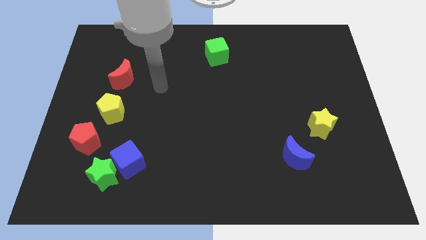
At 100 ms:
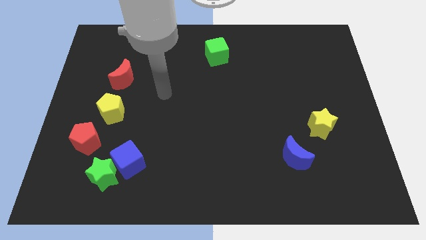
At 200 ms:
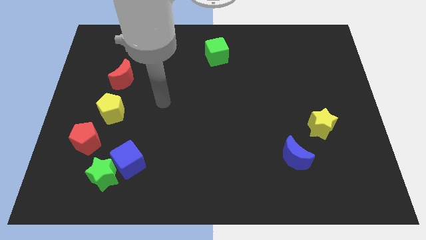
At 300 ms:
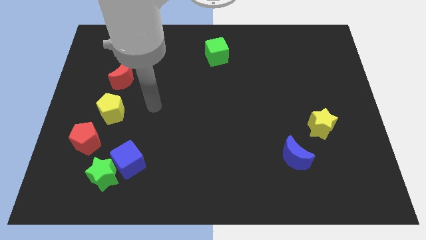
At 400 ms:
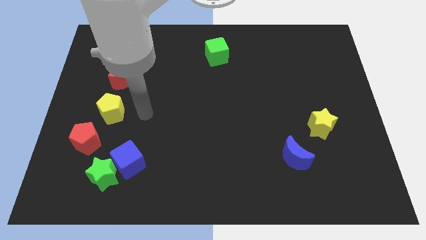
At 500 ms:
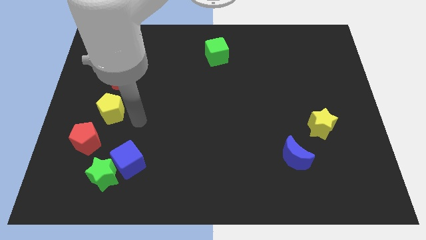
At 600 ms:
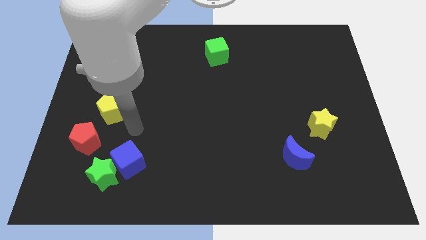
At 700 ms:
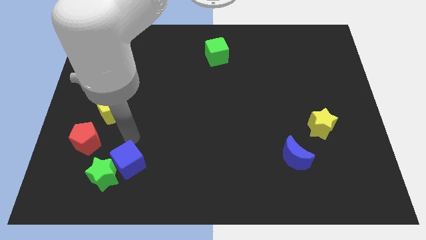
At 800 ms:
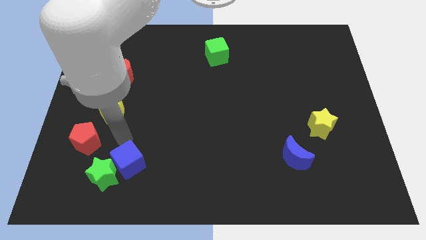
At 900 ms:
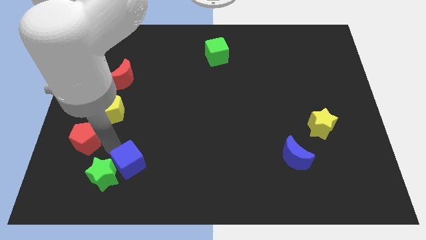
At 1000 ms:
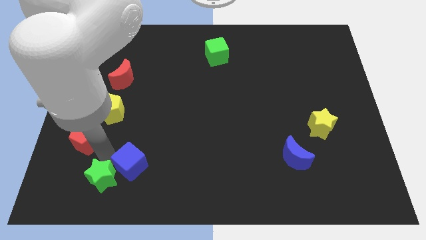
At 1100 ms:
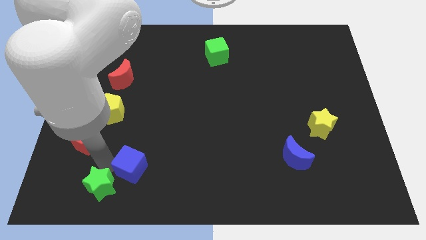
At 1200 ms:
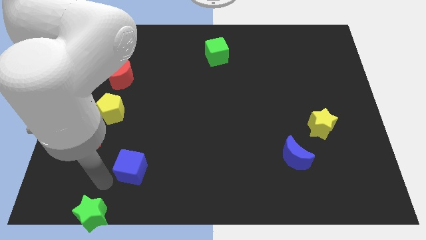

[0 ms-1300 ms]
pull the blue cube apart from the green star

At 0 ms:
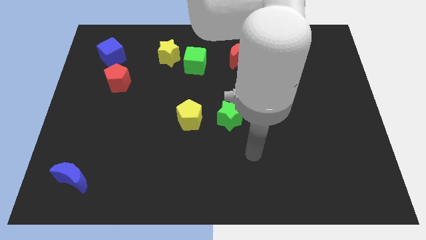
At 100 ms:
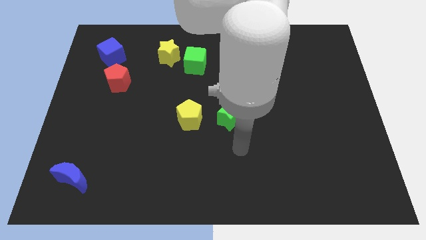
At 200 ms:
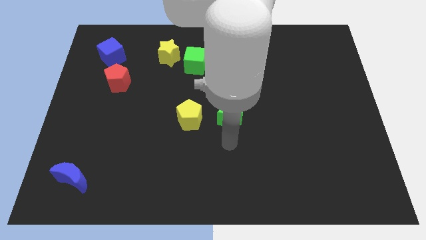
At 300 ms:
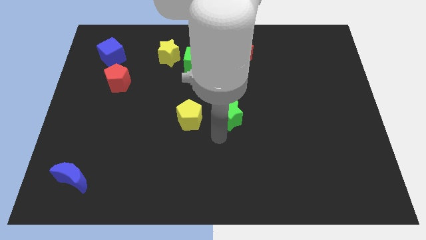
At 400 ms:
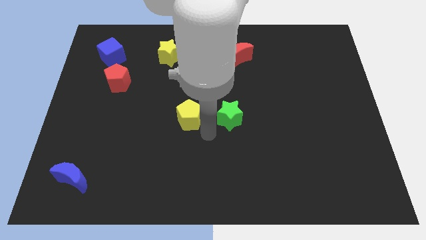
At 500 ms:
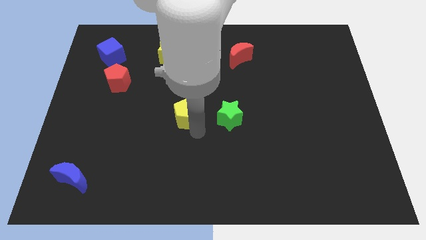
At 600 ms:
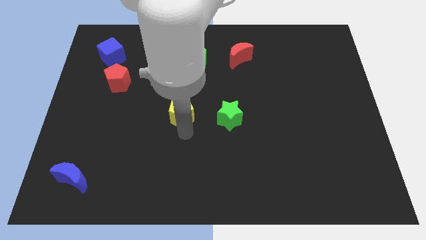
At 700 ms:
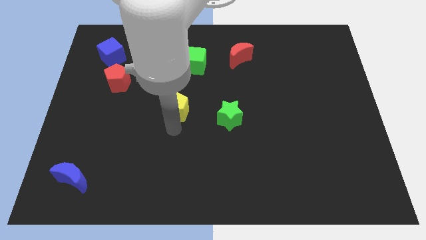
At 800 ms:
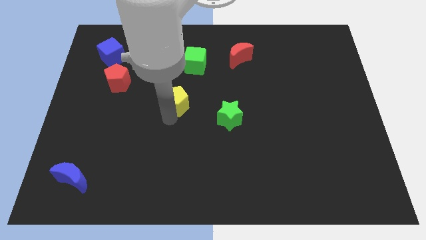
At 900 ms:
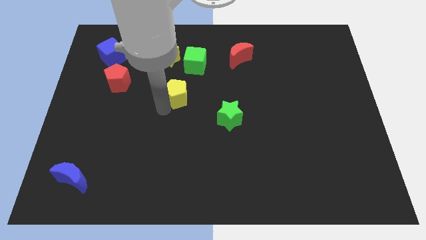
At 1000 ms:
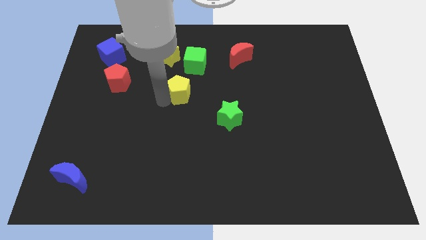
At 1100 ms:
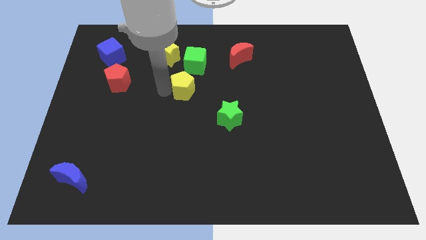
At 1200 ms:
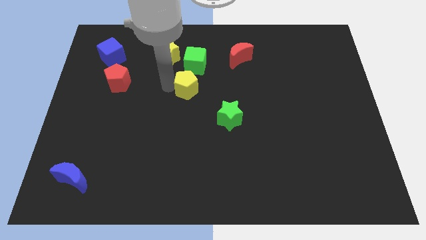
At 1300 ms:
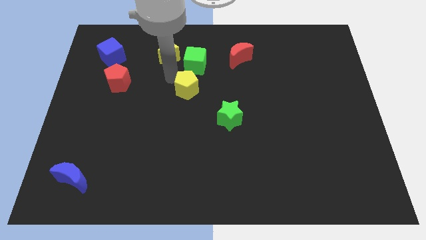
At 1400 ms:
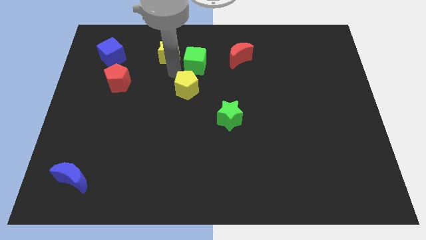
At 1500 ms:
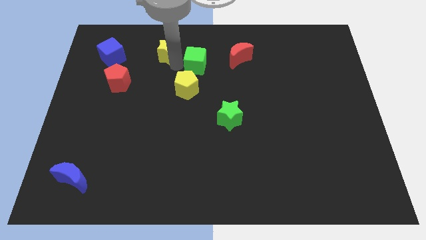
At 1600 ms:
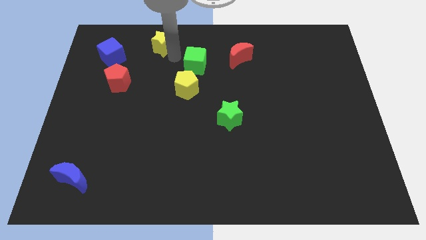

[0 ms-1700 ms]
separate the green cube from the yellow star

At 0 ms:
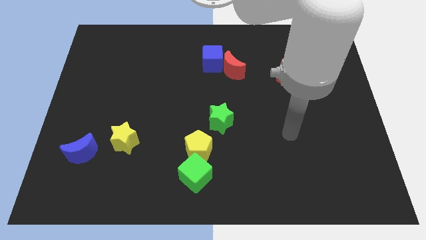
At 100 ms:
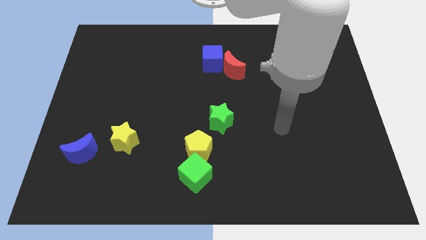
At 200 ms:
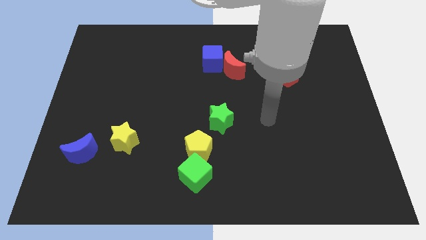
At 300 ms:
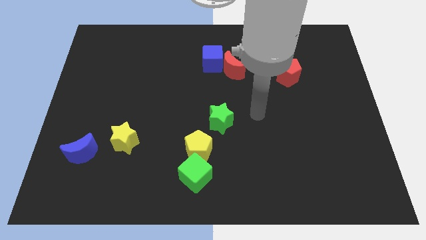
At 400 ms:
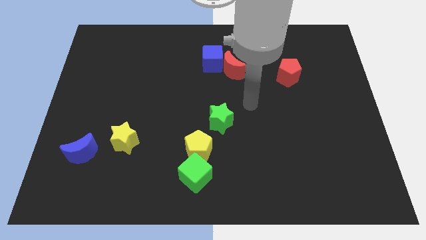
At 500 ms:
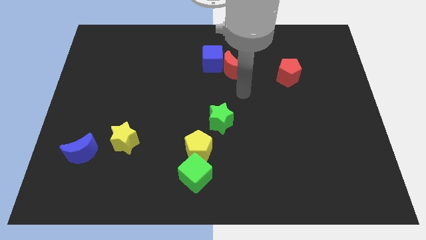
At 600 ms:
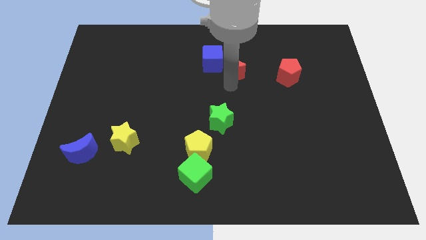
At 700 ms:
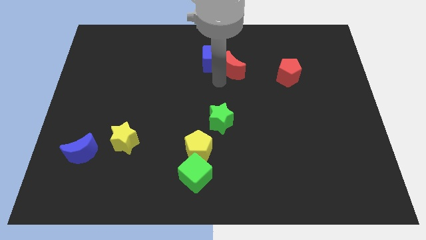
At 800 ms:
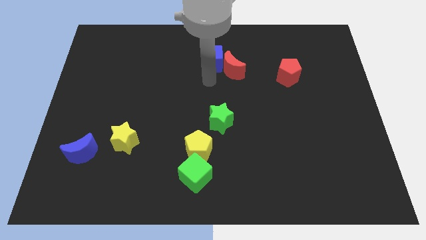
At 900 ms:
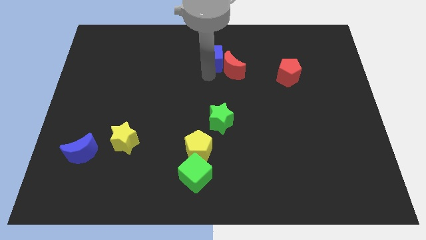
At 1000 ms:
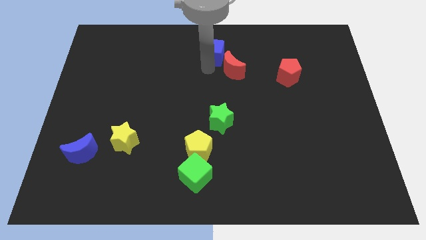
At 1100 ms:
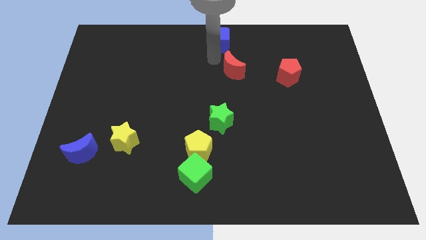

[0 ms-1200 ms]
pull the red moon apart from the blue cube

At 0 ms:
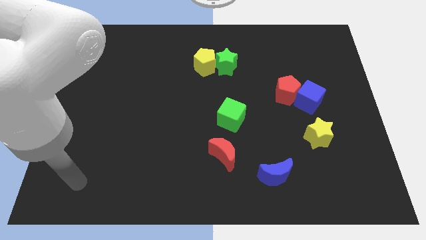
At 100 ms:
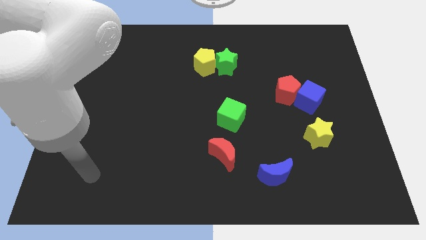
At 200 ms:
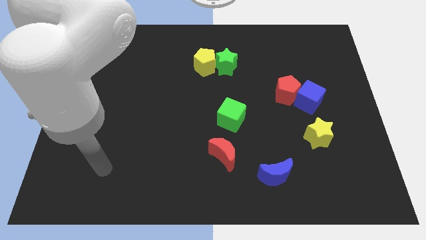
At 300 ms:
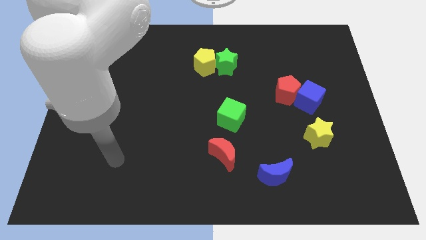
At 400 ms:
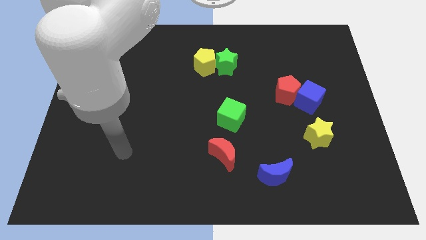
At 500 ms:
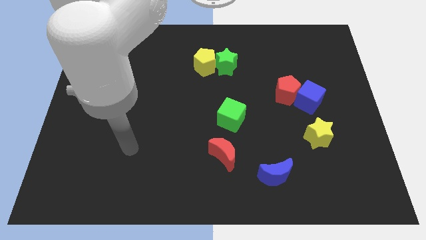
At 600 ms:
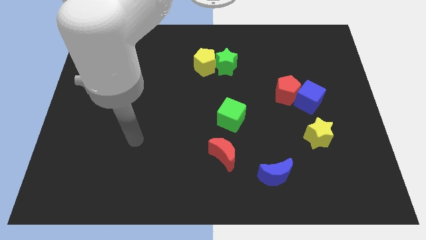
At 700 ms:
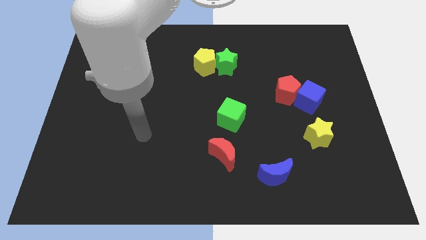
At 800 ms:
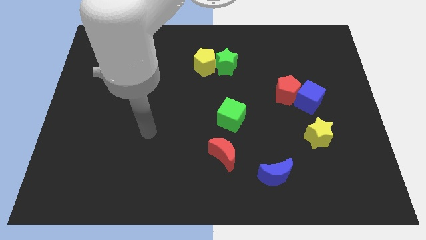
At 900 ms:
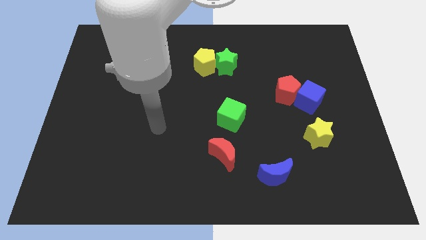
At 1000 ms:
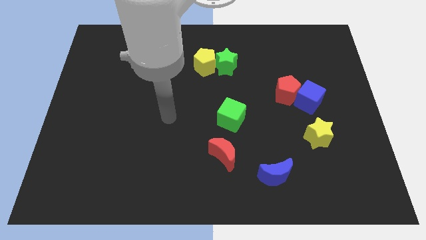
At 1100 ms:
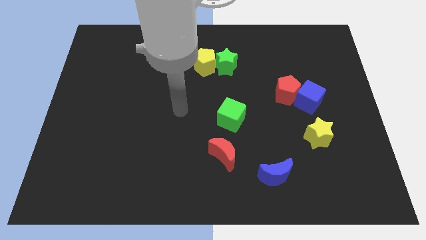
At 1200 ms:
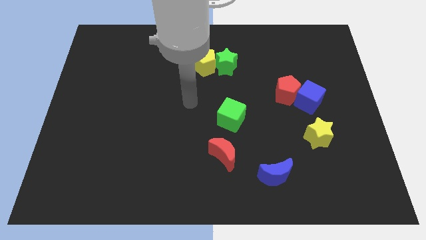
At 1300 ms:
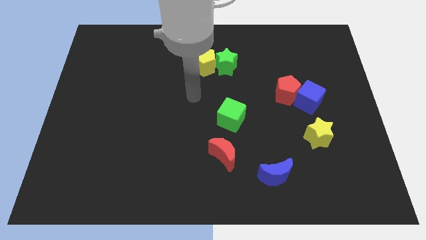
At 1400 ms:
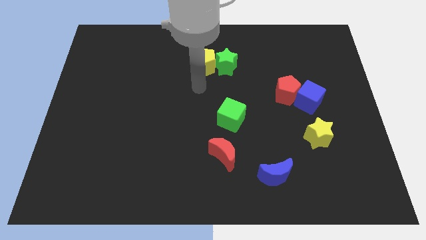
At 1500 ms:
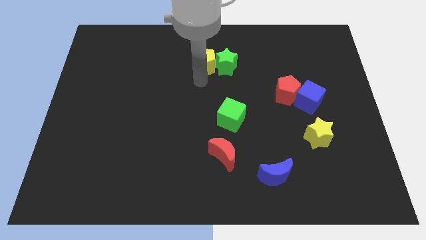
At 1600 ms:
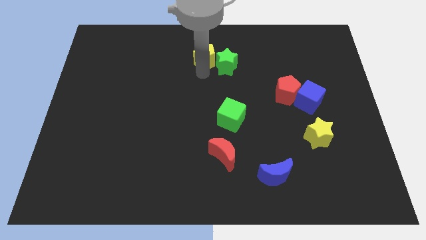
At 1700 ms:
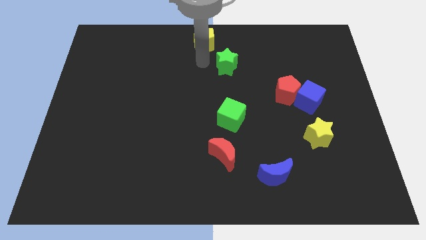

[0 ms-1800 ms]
pull the green star apart from the yellow pentagon

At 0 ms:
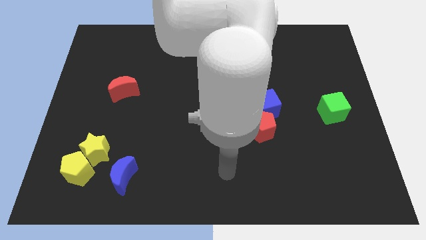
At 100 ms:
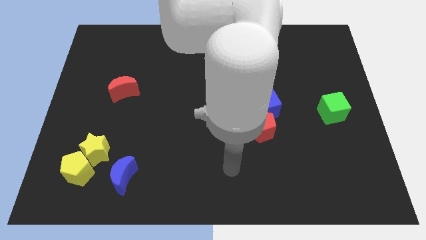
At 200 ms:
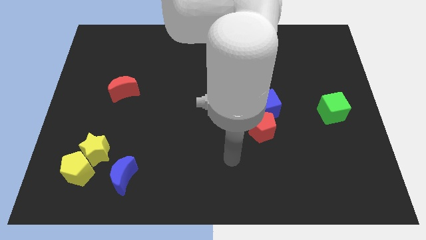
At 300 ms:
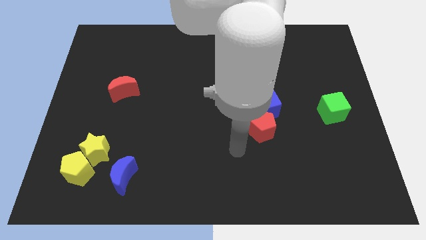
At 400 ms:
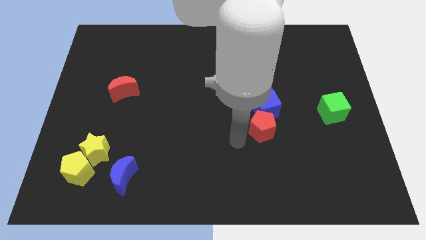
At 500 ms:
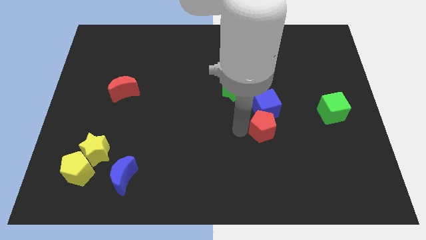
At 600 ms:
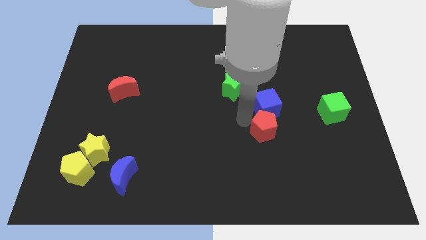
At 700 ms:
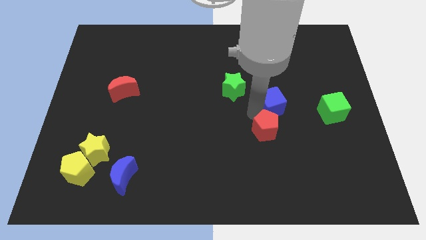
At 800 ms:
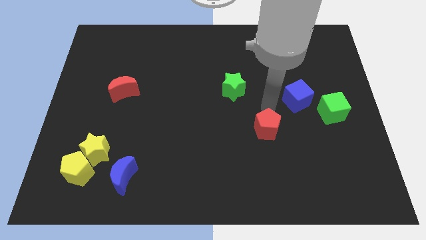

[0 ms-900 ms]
pull the red pentagon apart from the blue cube

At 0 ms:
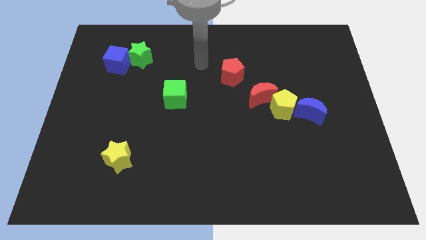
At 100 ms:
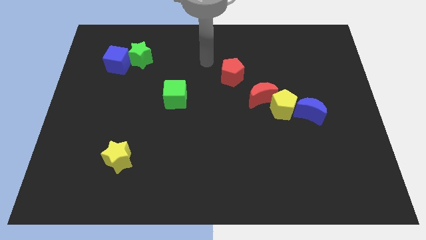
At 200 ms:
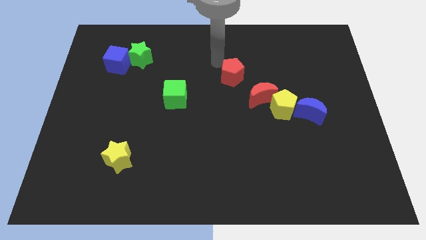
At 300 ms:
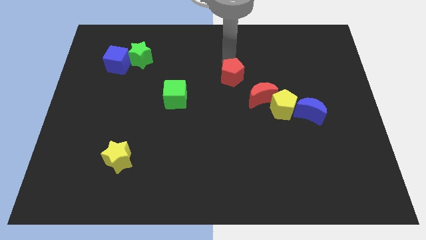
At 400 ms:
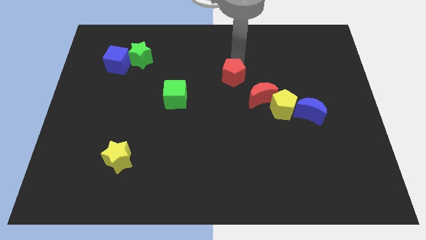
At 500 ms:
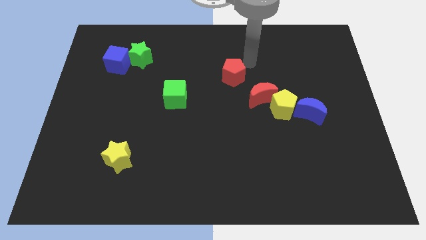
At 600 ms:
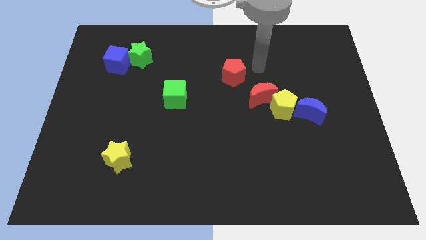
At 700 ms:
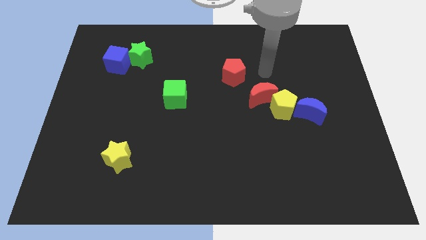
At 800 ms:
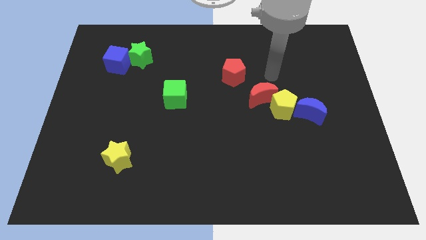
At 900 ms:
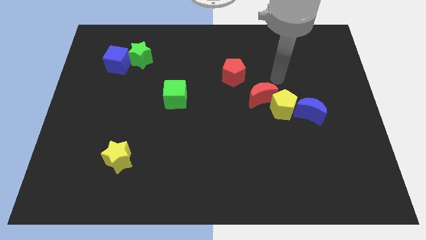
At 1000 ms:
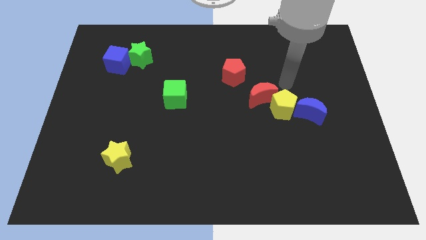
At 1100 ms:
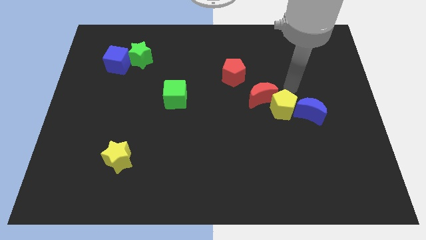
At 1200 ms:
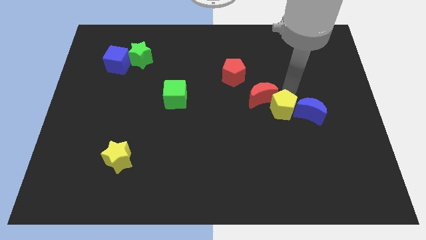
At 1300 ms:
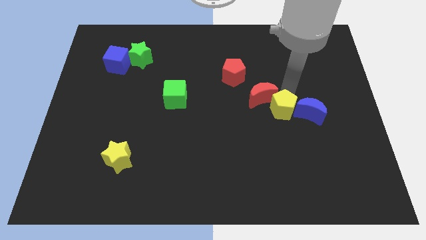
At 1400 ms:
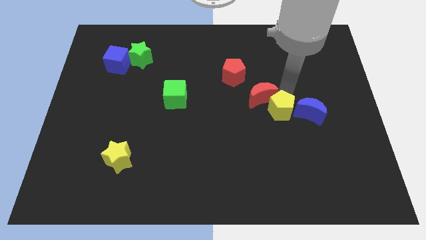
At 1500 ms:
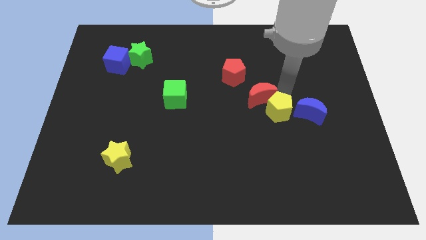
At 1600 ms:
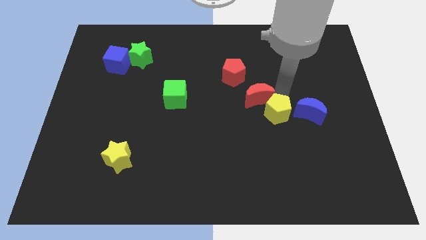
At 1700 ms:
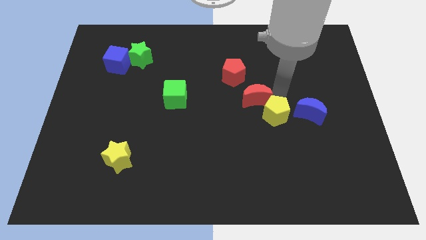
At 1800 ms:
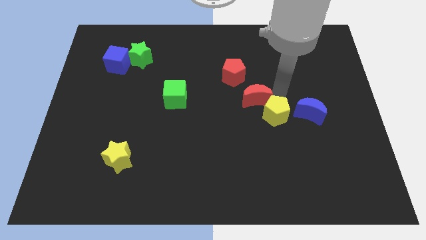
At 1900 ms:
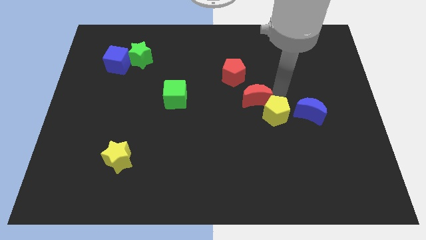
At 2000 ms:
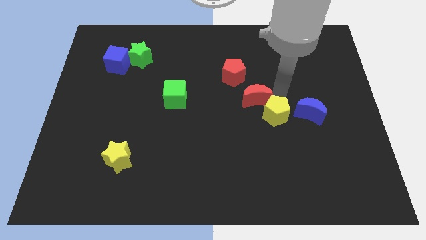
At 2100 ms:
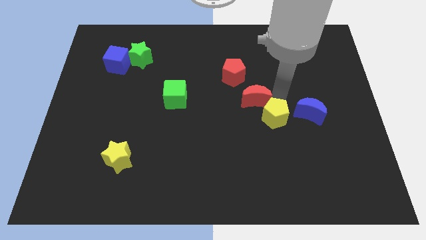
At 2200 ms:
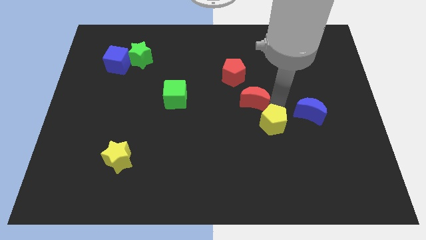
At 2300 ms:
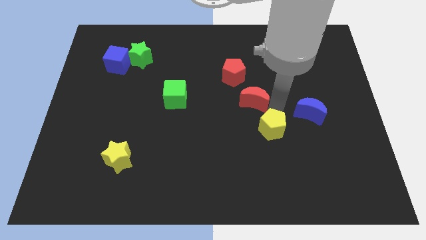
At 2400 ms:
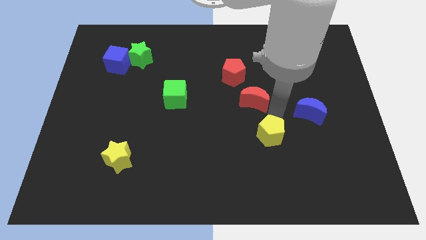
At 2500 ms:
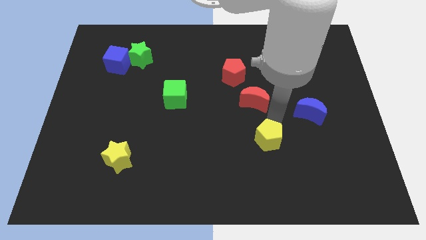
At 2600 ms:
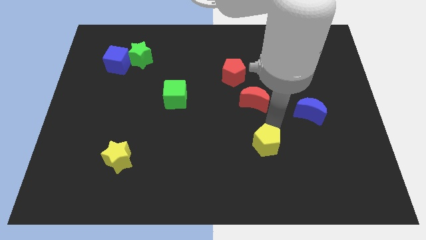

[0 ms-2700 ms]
separate the yellow pentagon from the red moon and blue moon
